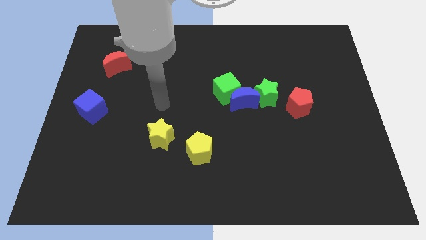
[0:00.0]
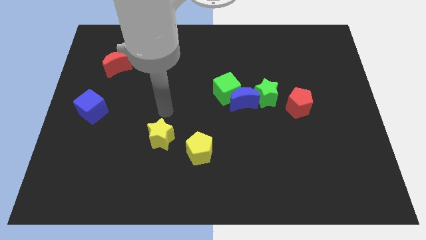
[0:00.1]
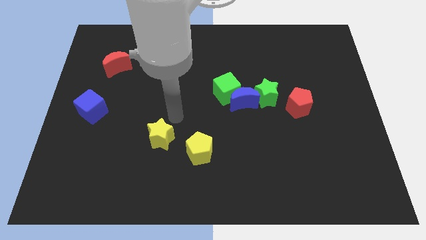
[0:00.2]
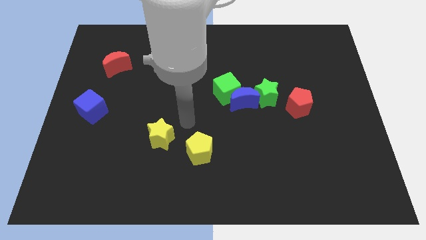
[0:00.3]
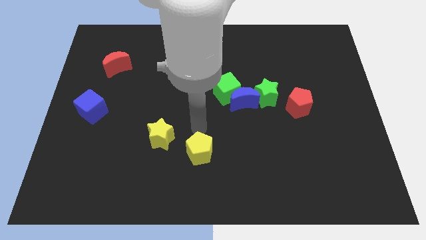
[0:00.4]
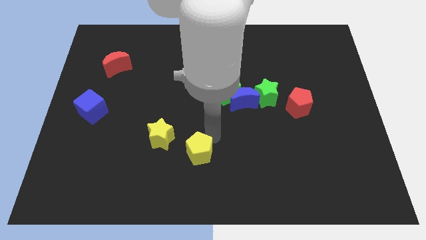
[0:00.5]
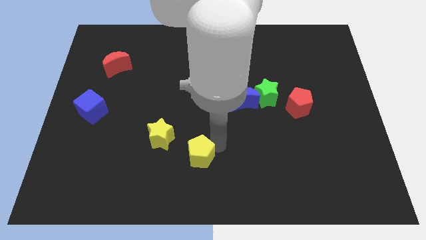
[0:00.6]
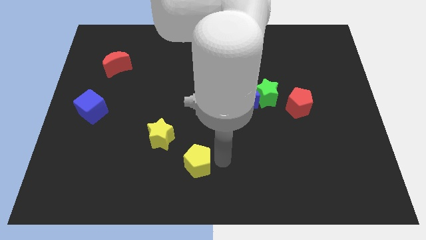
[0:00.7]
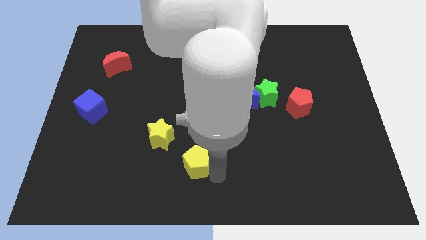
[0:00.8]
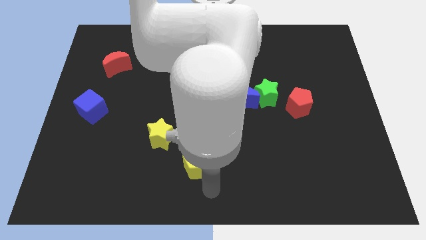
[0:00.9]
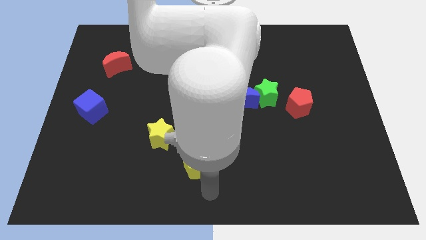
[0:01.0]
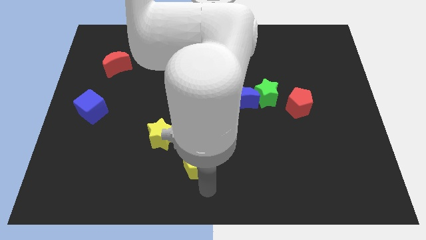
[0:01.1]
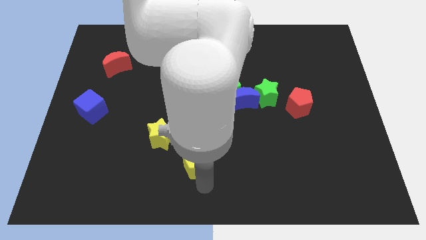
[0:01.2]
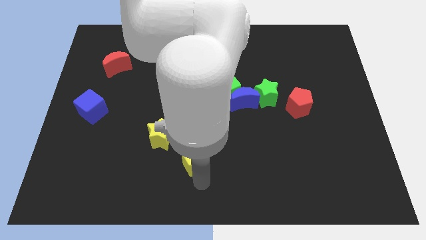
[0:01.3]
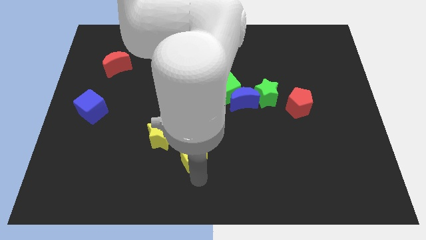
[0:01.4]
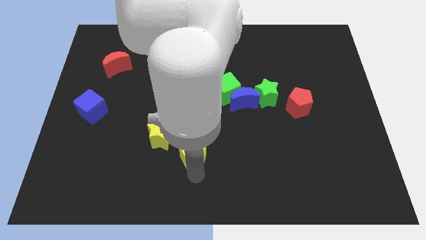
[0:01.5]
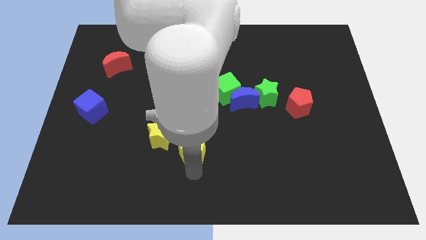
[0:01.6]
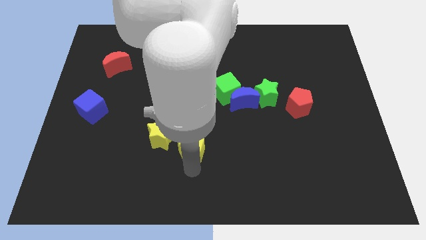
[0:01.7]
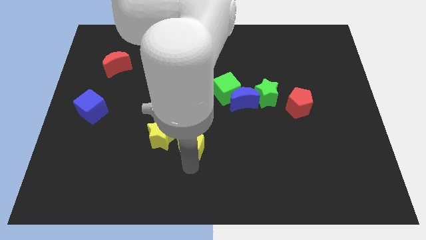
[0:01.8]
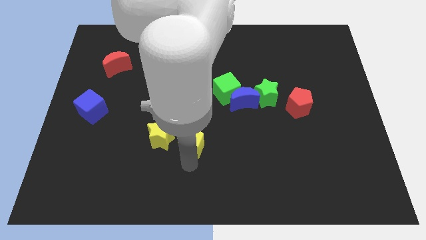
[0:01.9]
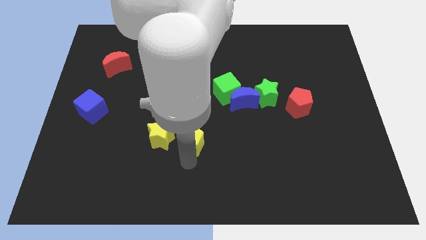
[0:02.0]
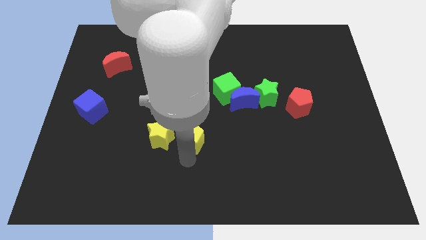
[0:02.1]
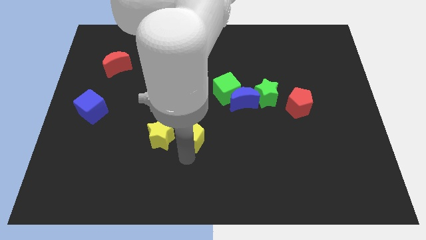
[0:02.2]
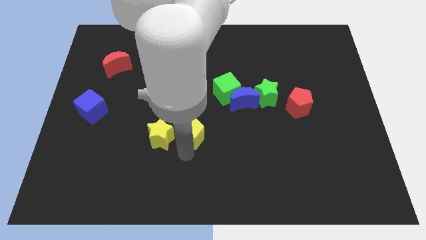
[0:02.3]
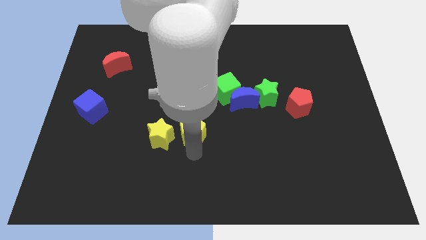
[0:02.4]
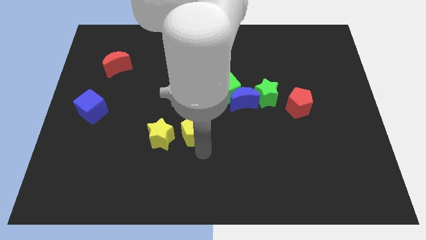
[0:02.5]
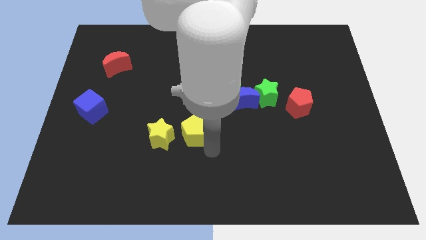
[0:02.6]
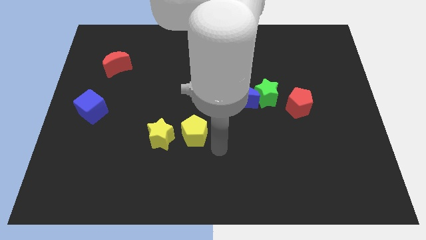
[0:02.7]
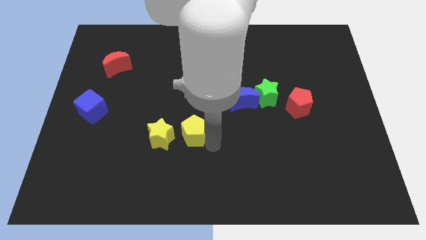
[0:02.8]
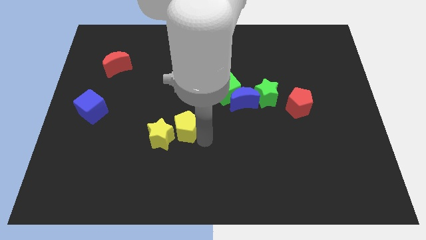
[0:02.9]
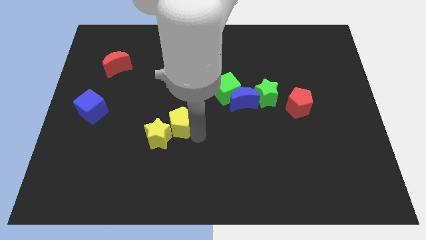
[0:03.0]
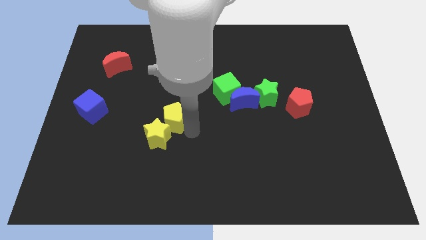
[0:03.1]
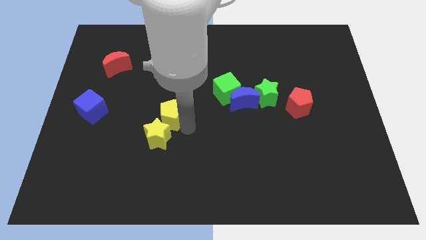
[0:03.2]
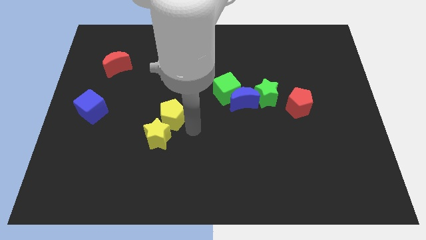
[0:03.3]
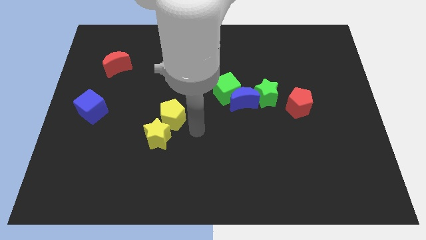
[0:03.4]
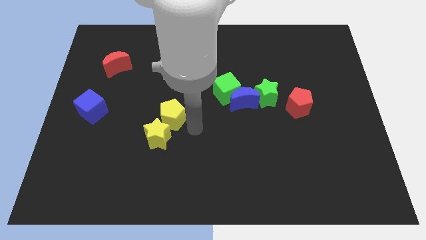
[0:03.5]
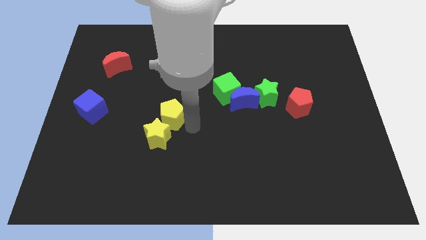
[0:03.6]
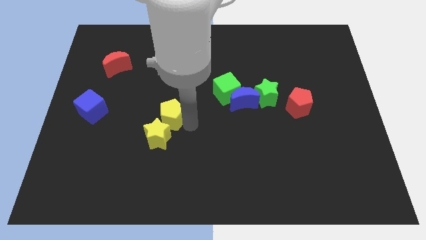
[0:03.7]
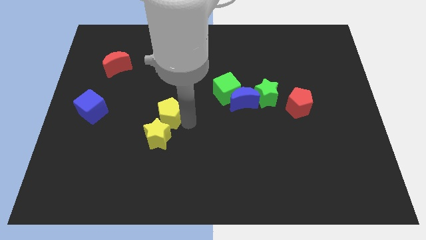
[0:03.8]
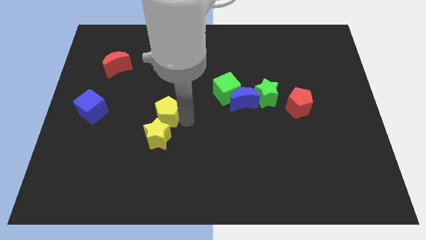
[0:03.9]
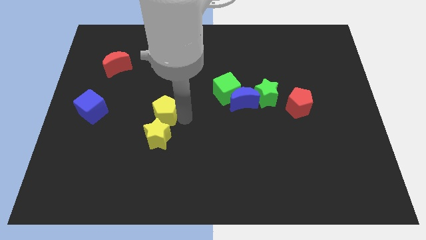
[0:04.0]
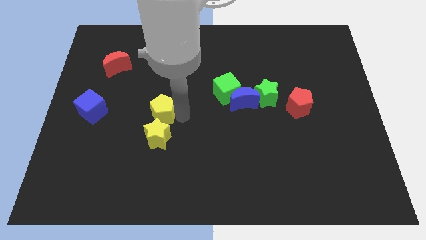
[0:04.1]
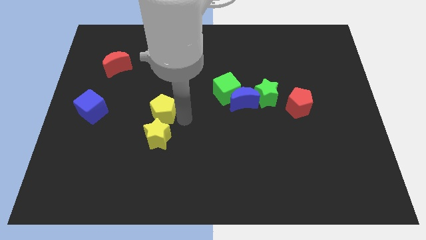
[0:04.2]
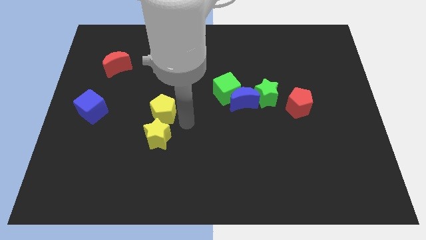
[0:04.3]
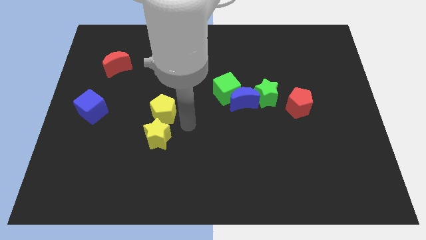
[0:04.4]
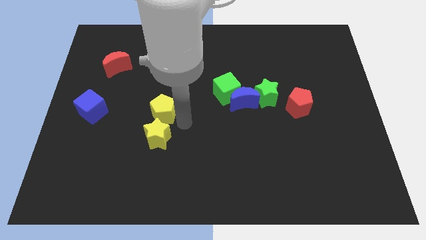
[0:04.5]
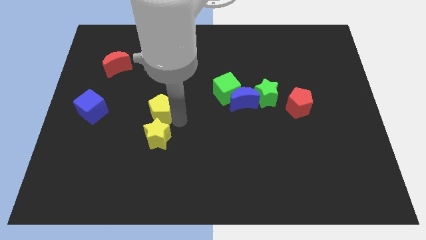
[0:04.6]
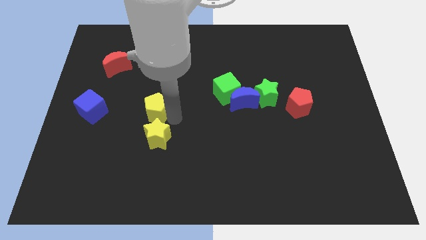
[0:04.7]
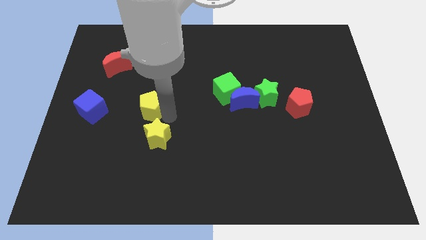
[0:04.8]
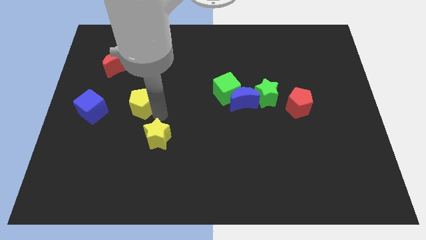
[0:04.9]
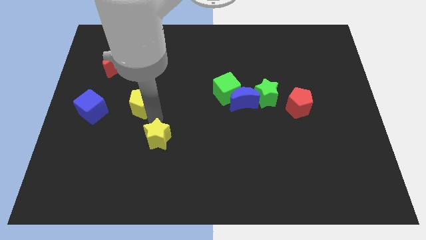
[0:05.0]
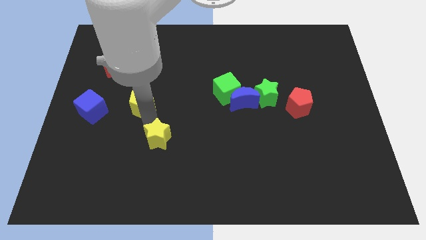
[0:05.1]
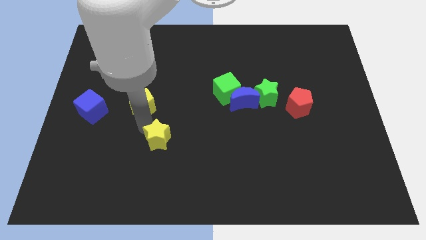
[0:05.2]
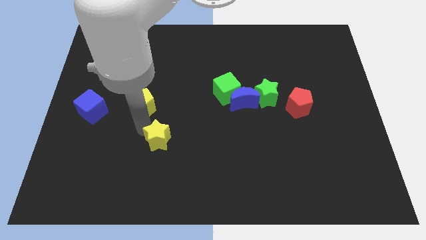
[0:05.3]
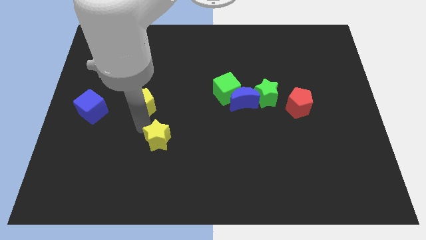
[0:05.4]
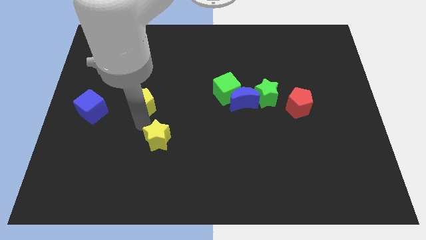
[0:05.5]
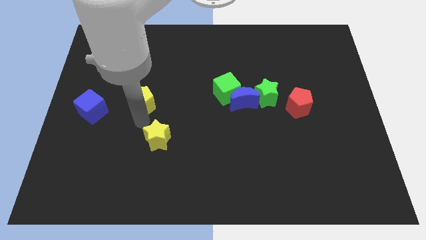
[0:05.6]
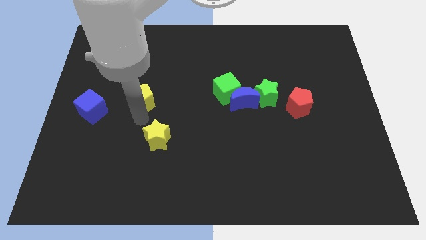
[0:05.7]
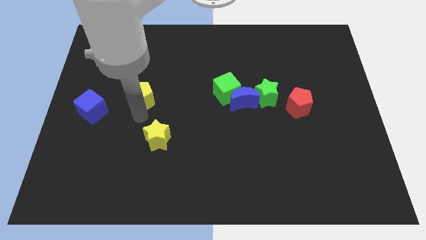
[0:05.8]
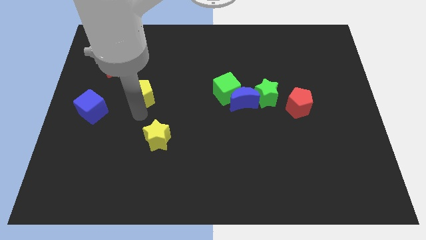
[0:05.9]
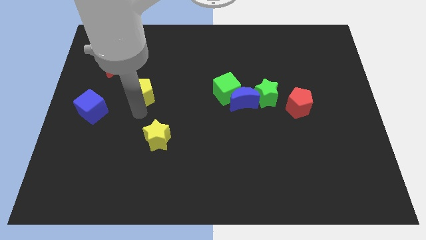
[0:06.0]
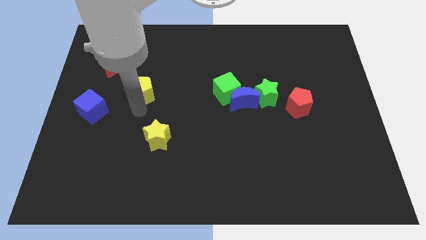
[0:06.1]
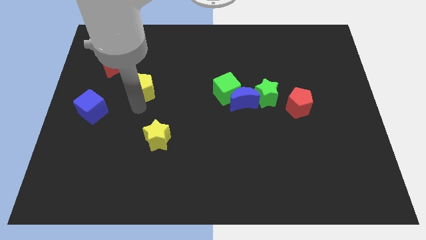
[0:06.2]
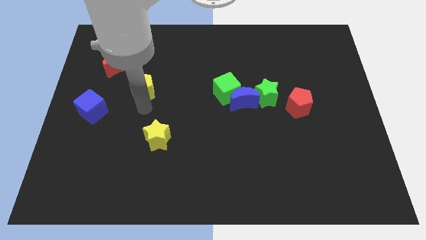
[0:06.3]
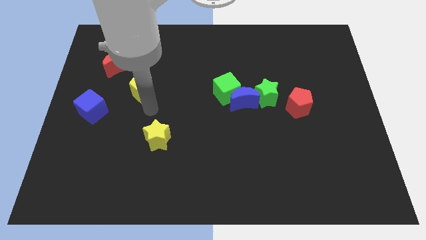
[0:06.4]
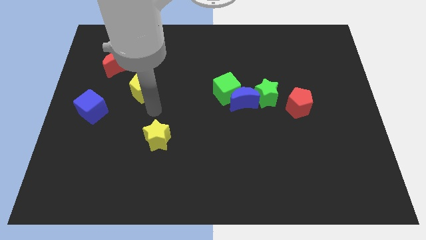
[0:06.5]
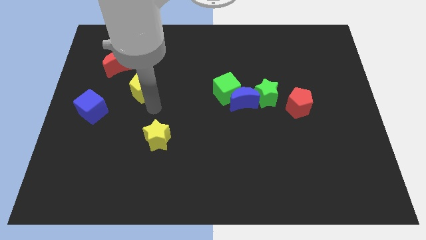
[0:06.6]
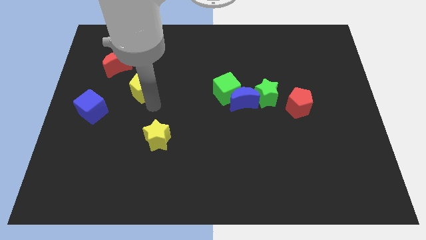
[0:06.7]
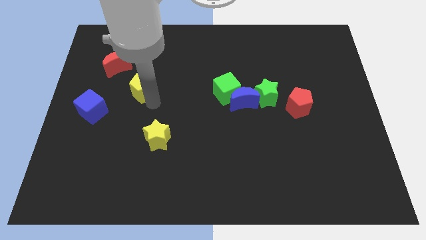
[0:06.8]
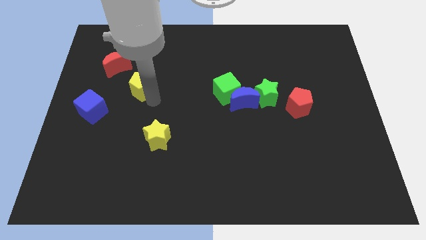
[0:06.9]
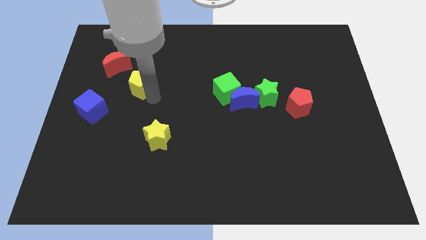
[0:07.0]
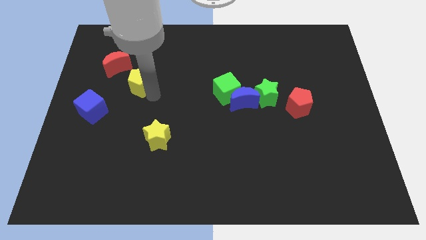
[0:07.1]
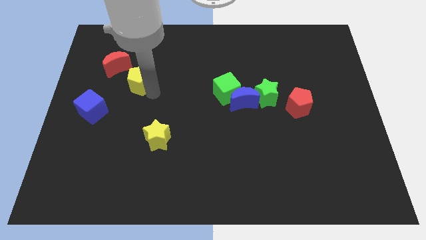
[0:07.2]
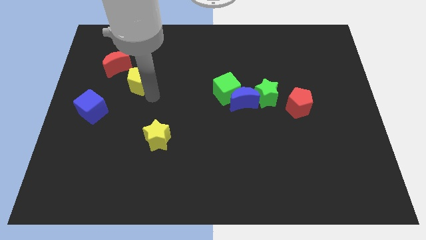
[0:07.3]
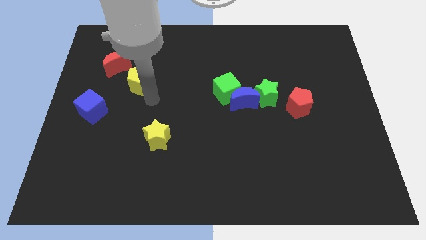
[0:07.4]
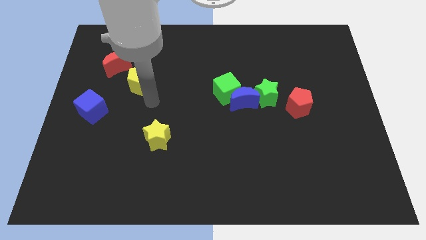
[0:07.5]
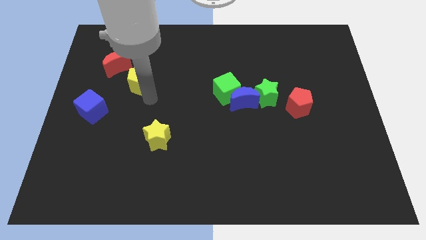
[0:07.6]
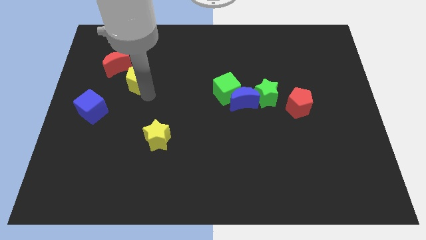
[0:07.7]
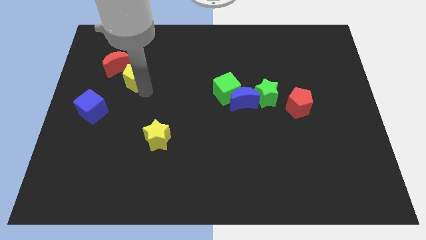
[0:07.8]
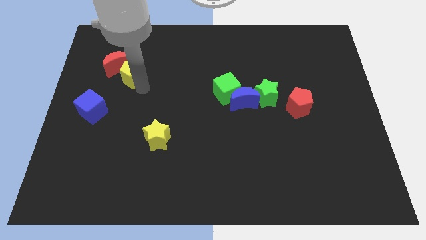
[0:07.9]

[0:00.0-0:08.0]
push the yellow pentagon to the red moon
